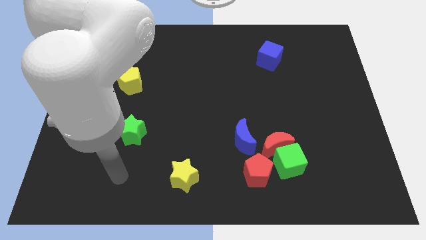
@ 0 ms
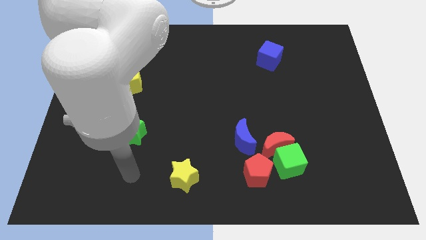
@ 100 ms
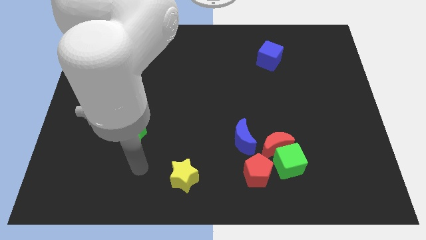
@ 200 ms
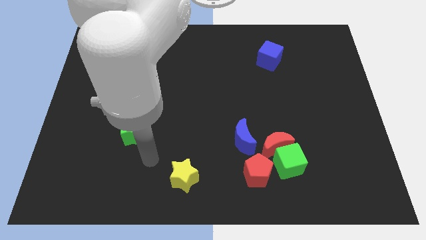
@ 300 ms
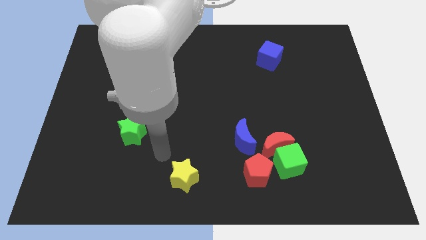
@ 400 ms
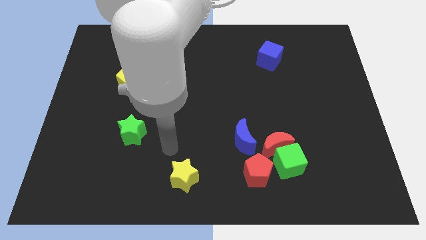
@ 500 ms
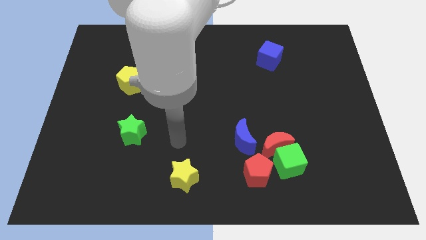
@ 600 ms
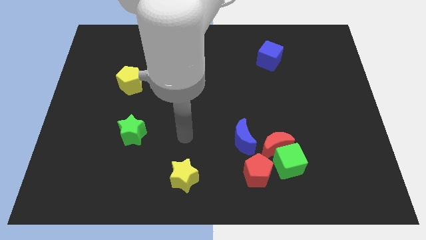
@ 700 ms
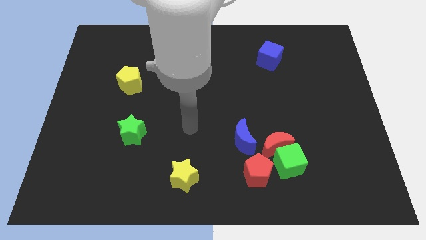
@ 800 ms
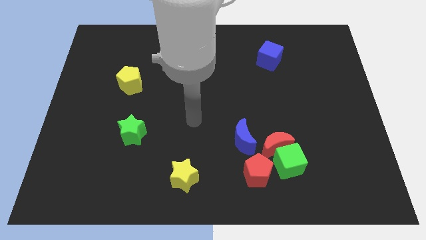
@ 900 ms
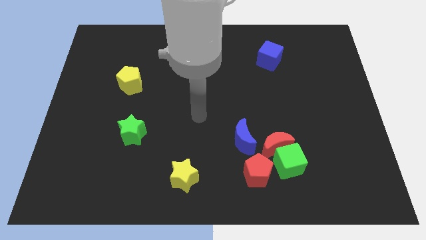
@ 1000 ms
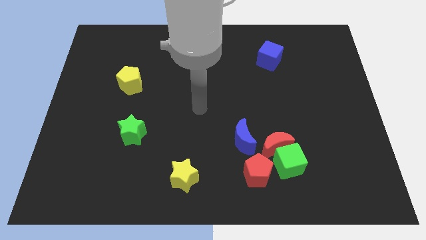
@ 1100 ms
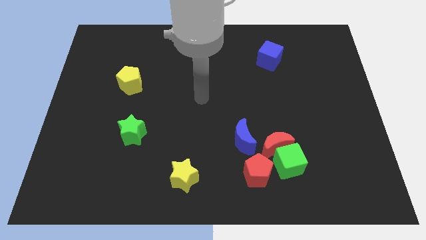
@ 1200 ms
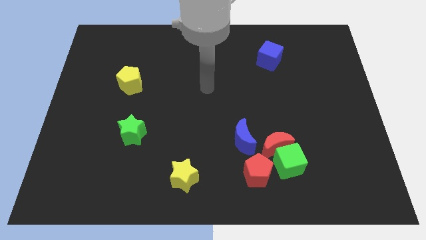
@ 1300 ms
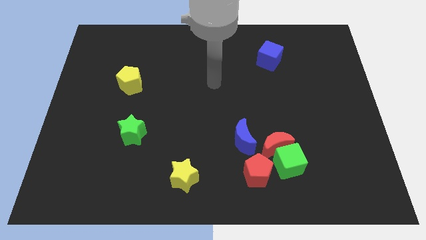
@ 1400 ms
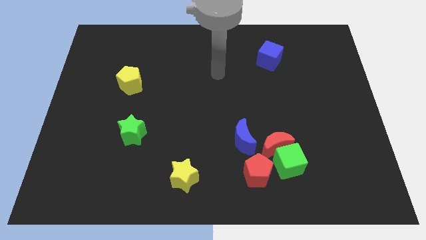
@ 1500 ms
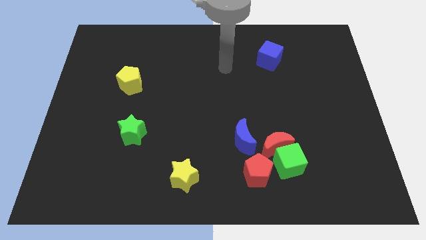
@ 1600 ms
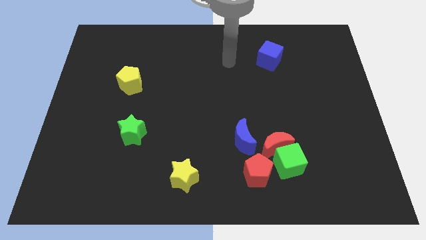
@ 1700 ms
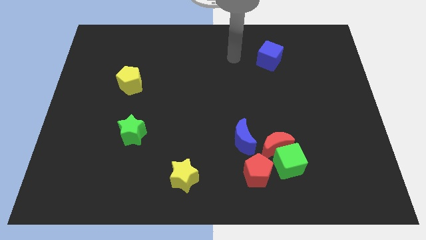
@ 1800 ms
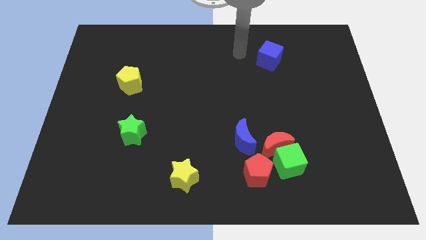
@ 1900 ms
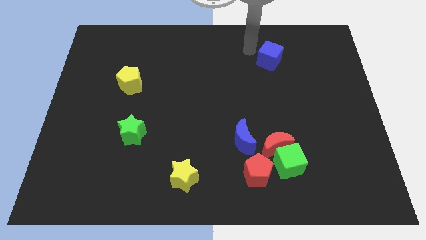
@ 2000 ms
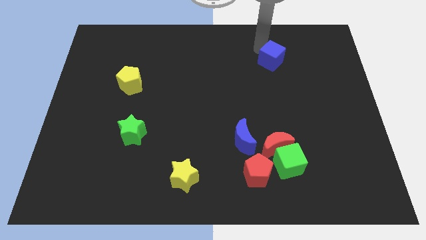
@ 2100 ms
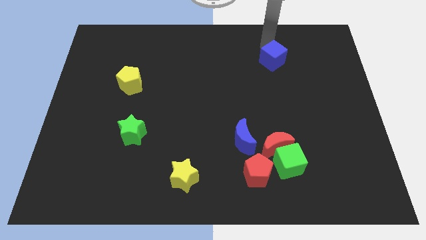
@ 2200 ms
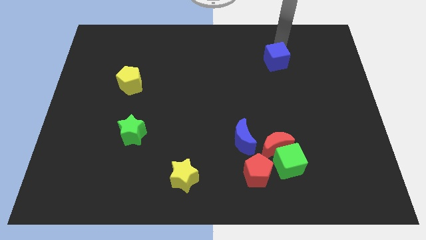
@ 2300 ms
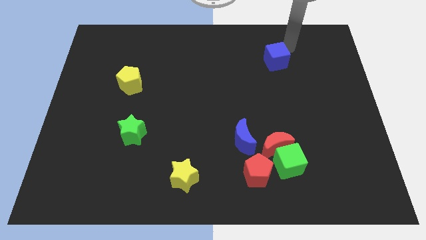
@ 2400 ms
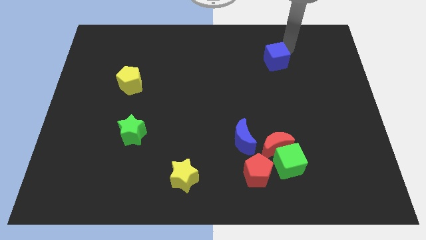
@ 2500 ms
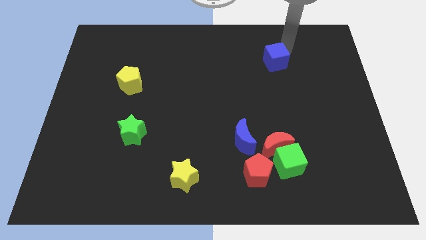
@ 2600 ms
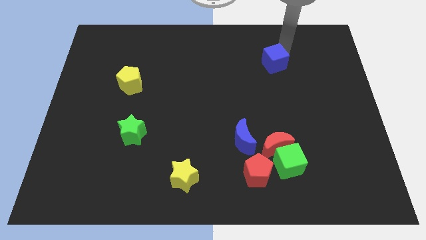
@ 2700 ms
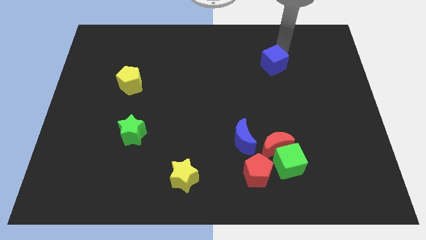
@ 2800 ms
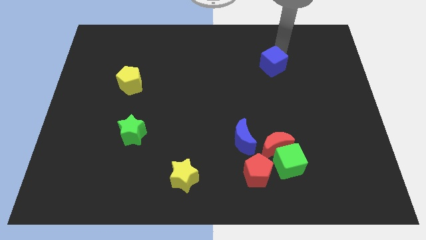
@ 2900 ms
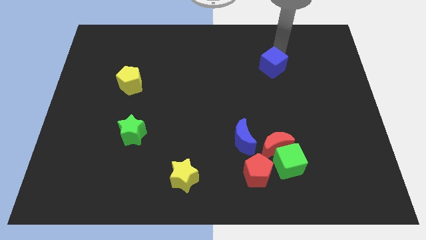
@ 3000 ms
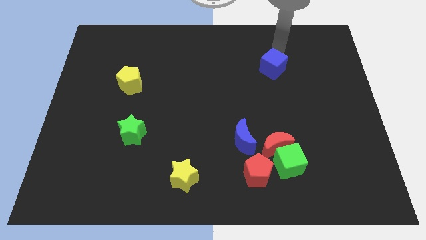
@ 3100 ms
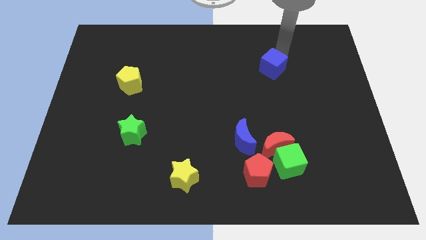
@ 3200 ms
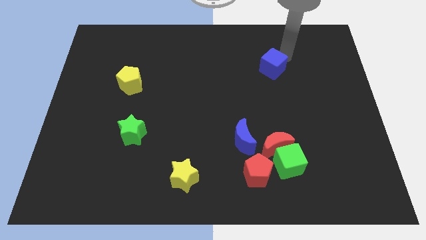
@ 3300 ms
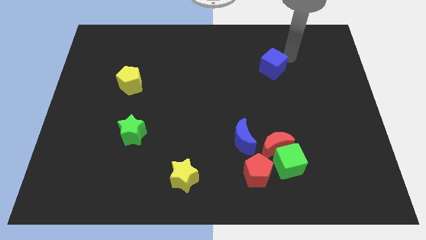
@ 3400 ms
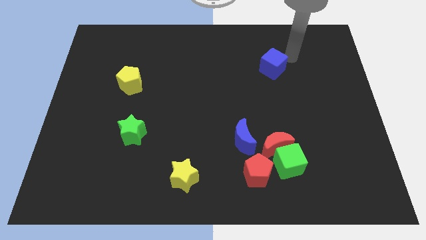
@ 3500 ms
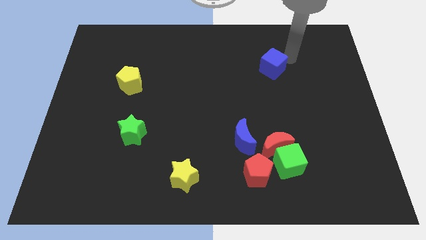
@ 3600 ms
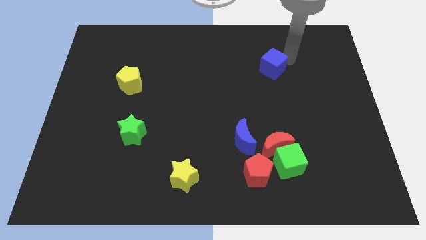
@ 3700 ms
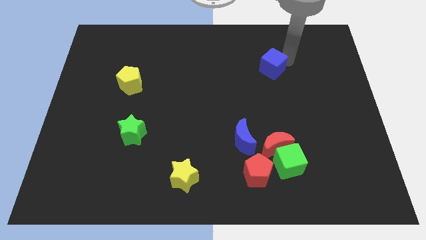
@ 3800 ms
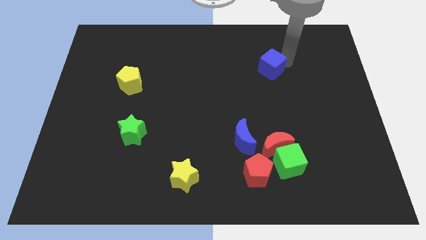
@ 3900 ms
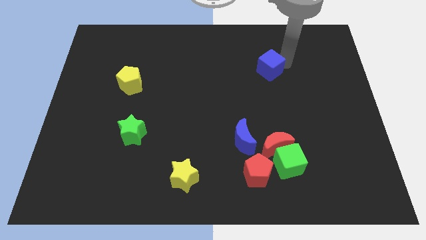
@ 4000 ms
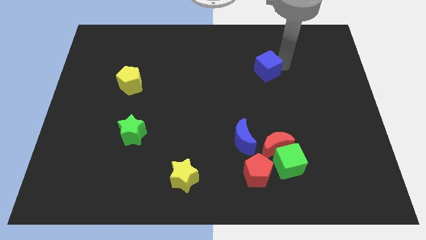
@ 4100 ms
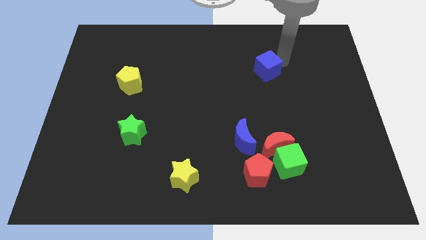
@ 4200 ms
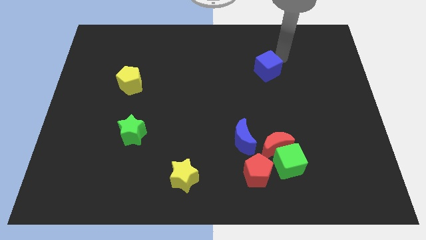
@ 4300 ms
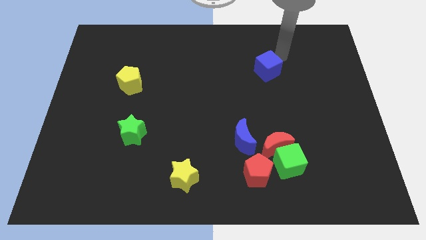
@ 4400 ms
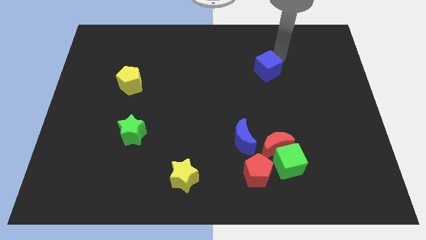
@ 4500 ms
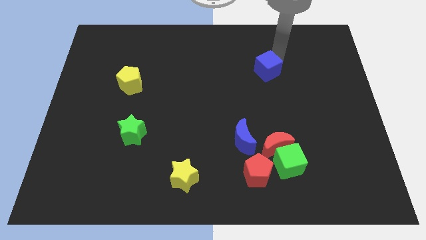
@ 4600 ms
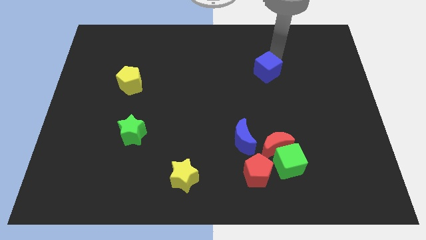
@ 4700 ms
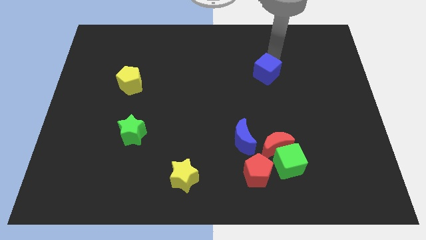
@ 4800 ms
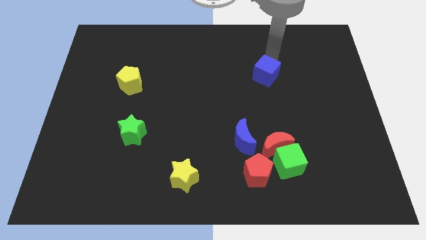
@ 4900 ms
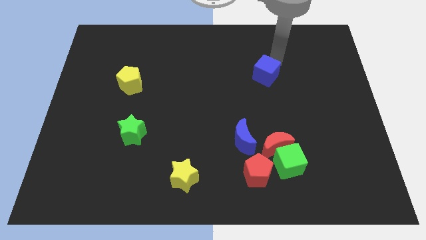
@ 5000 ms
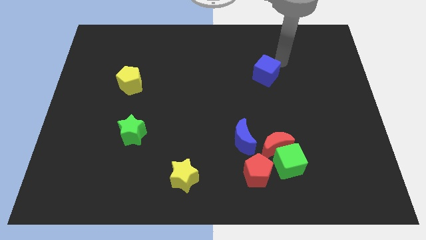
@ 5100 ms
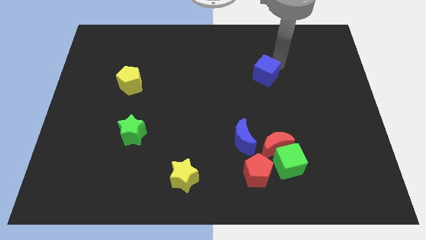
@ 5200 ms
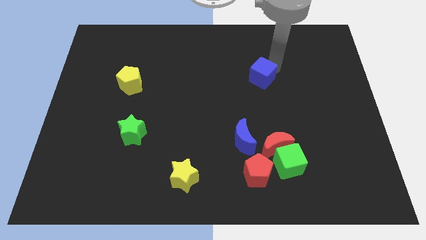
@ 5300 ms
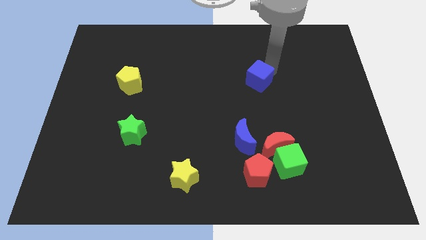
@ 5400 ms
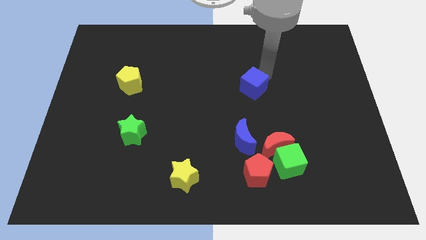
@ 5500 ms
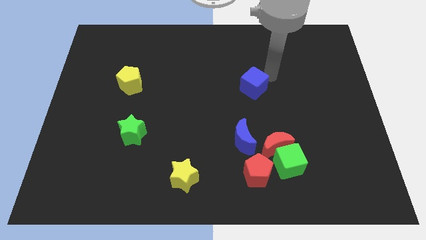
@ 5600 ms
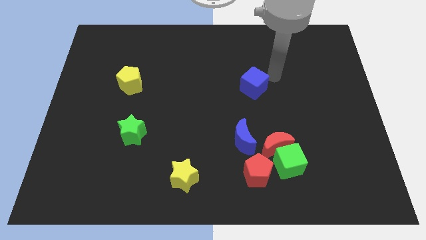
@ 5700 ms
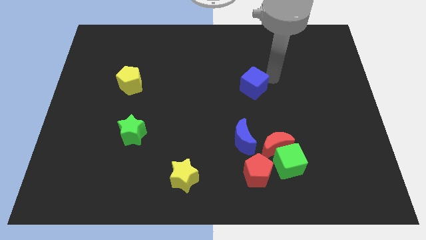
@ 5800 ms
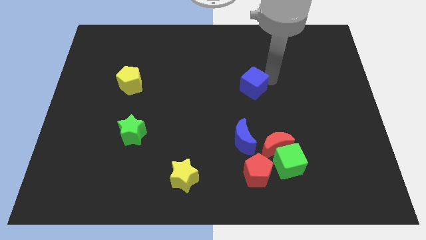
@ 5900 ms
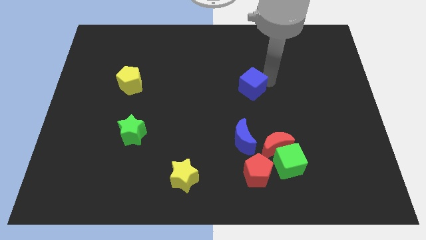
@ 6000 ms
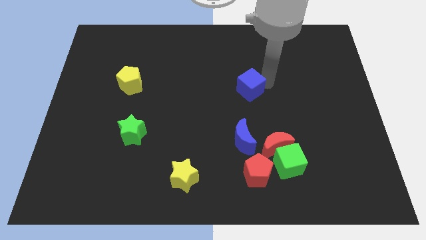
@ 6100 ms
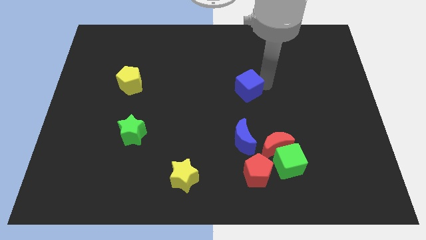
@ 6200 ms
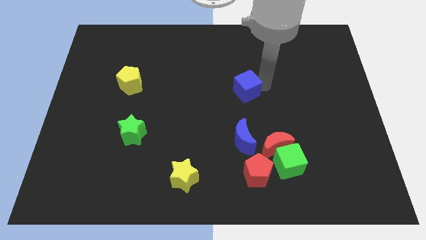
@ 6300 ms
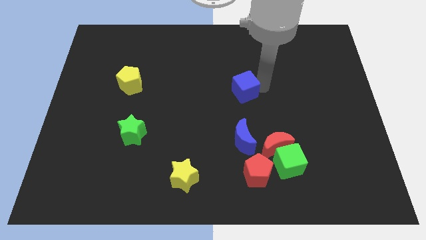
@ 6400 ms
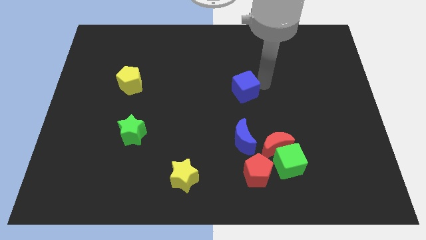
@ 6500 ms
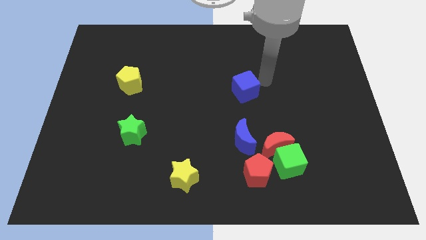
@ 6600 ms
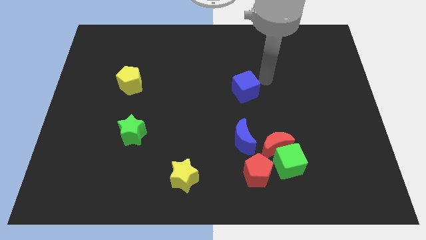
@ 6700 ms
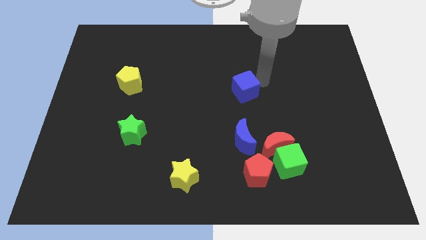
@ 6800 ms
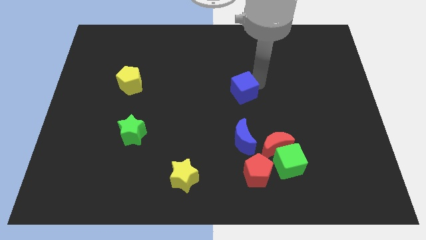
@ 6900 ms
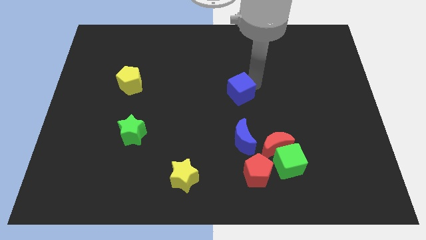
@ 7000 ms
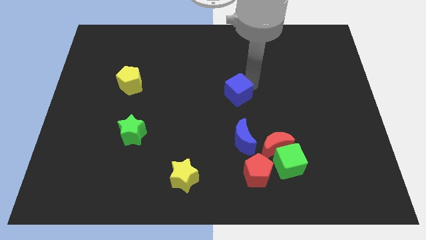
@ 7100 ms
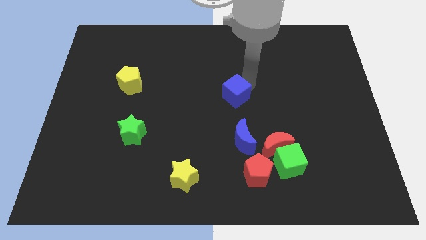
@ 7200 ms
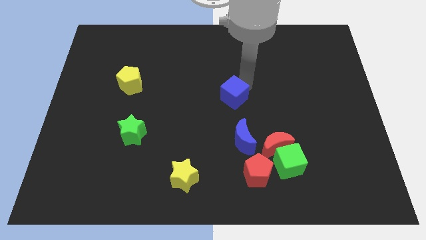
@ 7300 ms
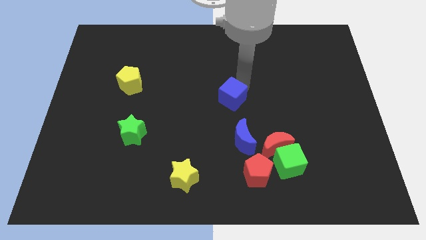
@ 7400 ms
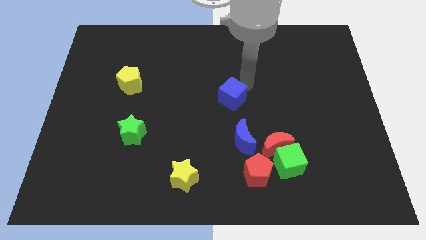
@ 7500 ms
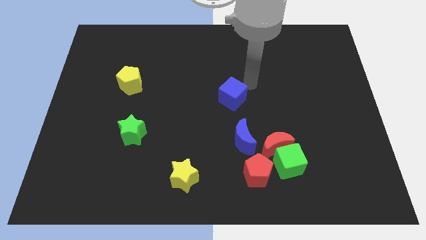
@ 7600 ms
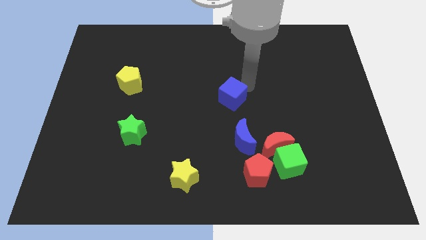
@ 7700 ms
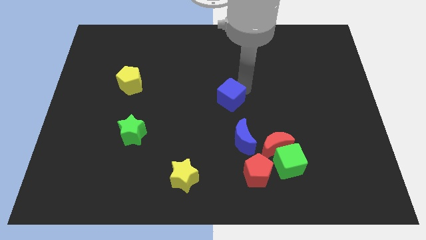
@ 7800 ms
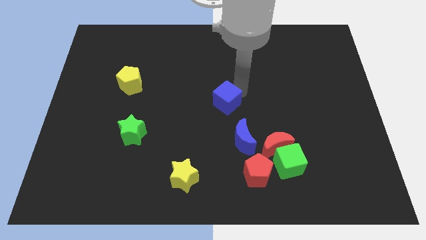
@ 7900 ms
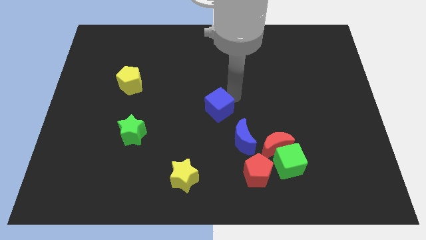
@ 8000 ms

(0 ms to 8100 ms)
move the blue cube downwards and to the left
